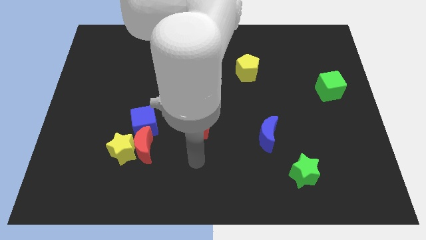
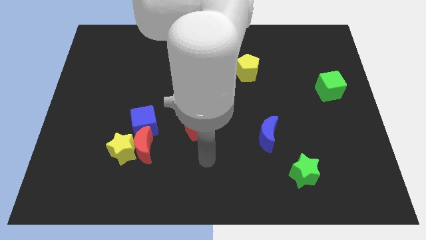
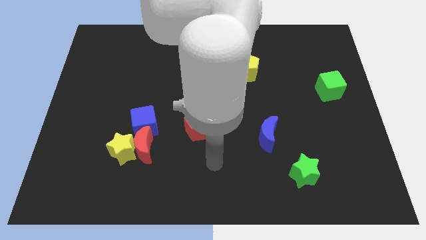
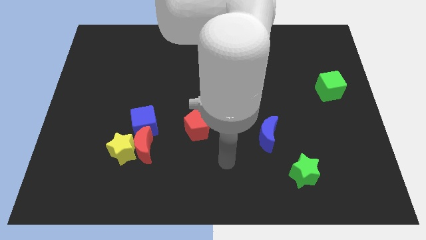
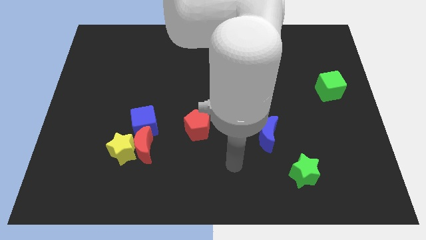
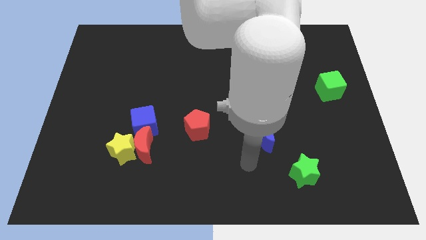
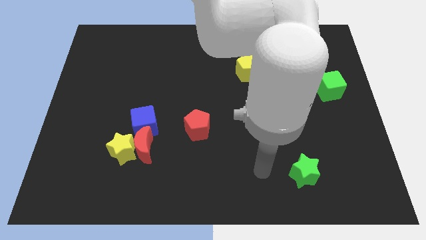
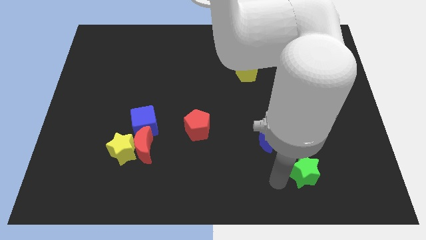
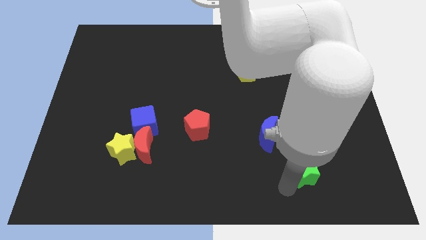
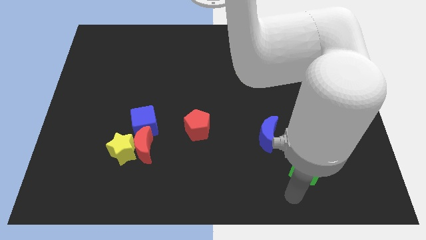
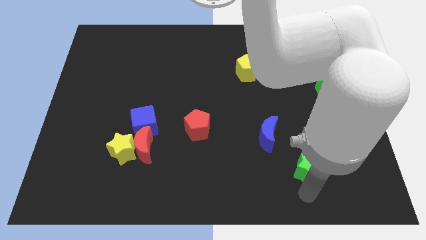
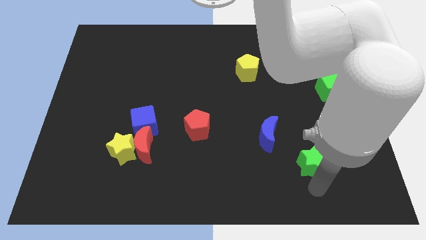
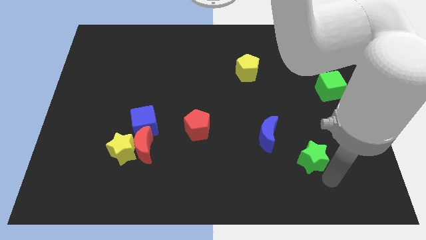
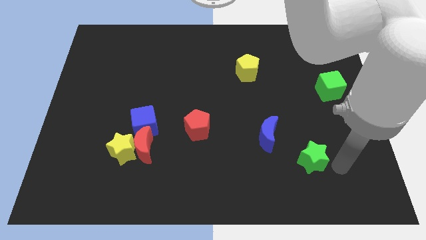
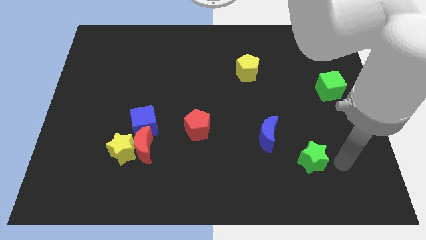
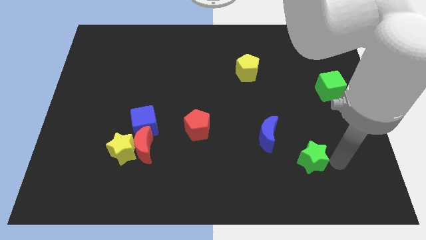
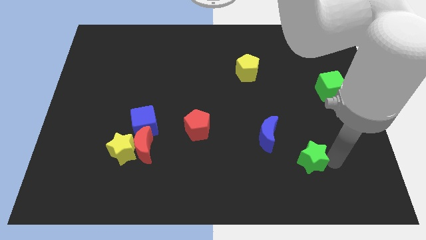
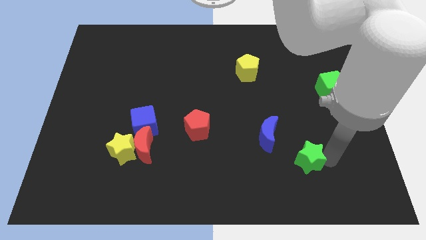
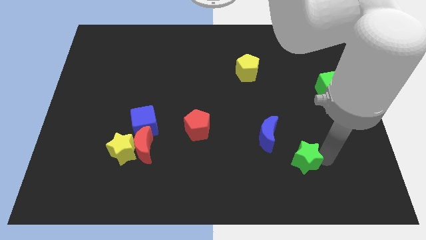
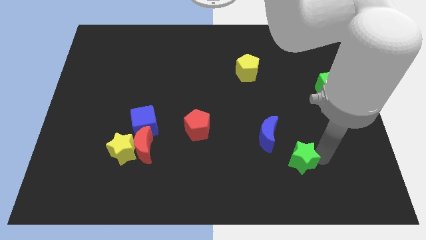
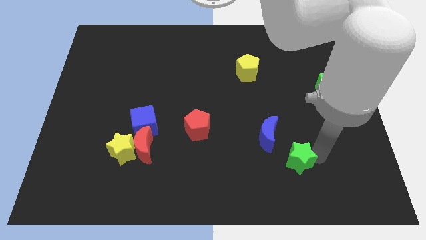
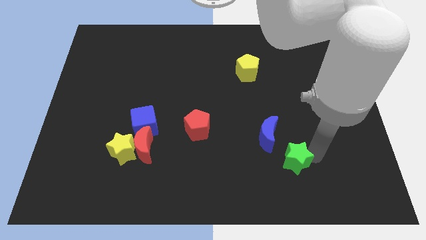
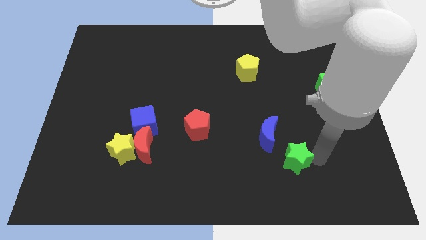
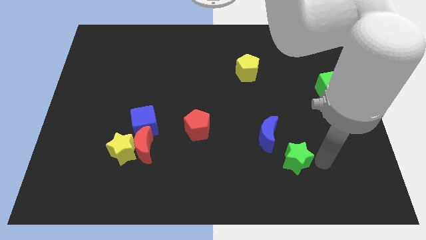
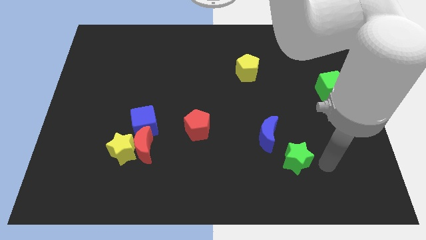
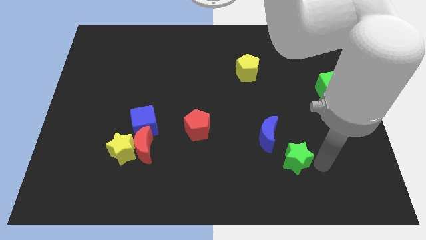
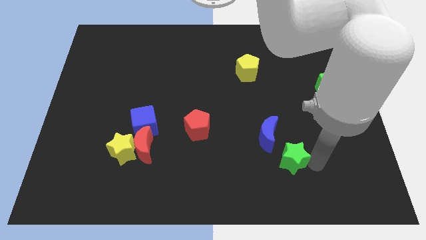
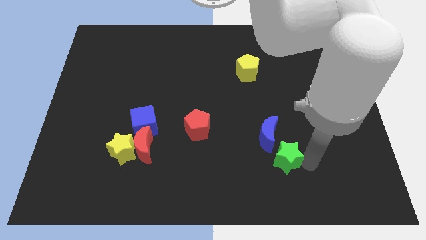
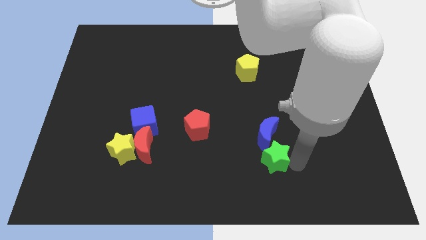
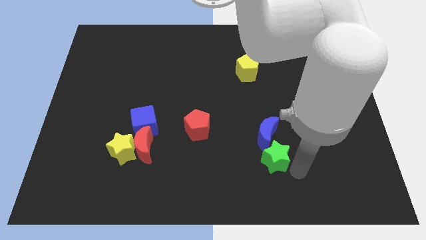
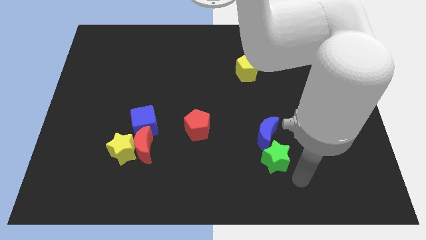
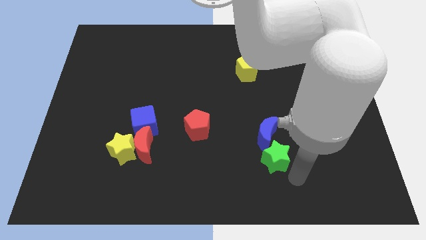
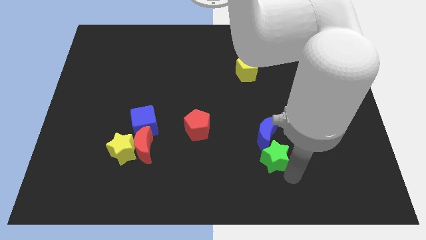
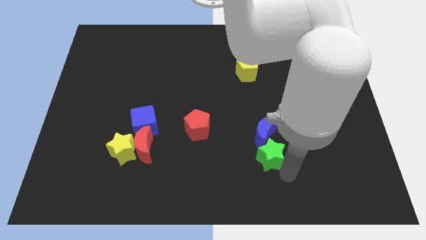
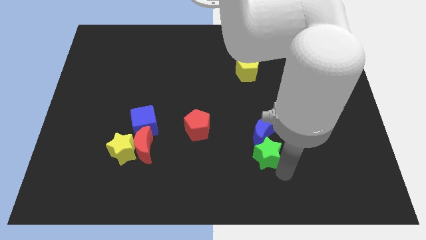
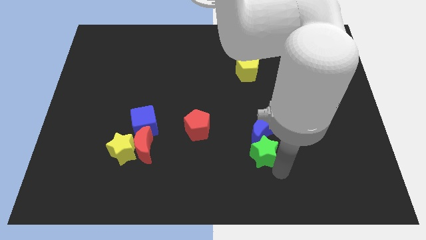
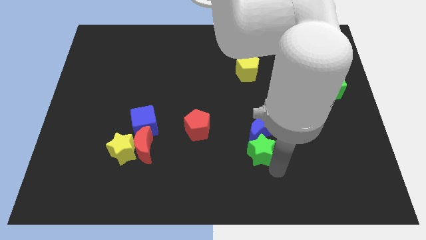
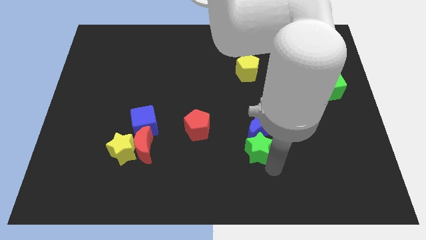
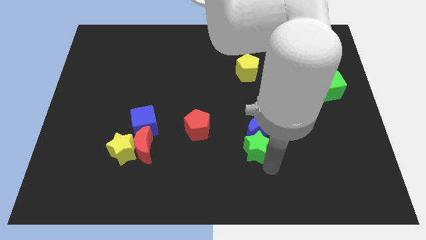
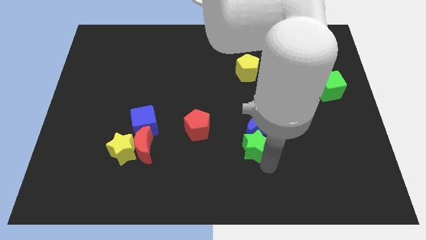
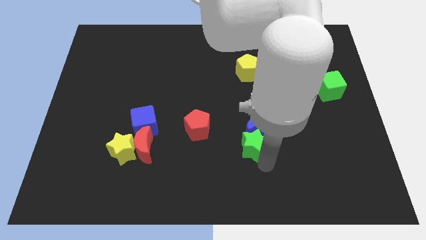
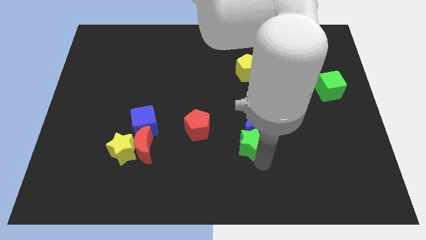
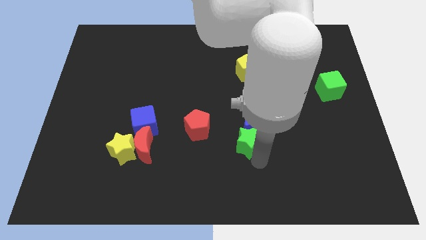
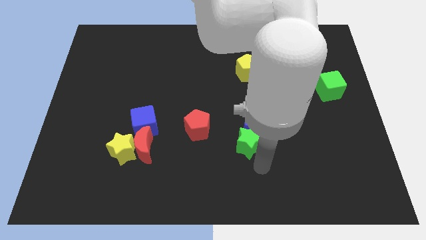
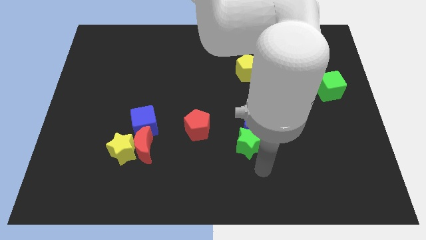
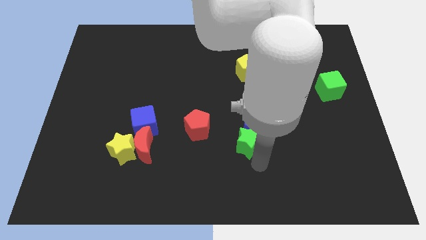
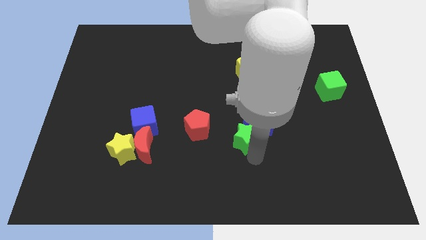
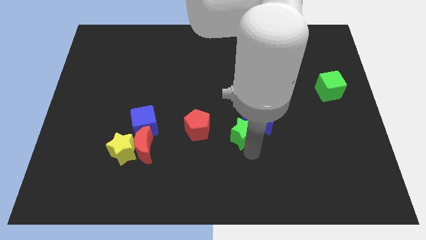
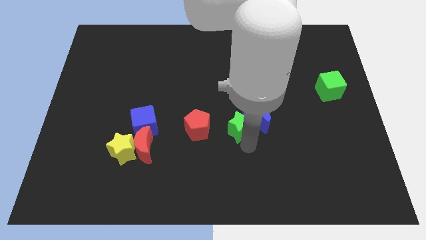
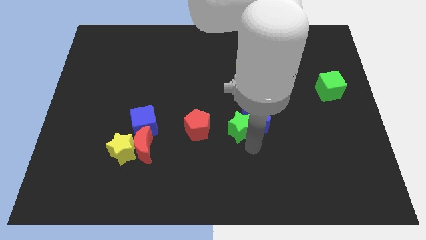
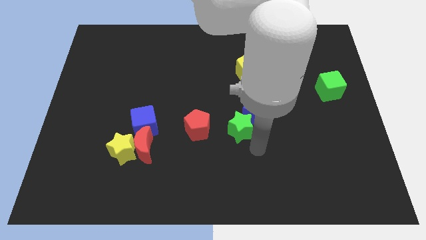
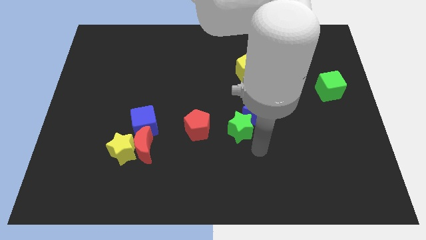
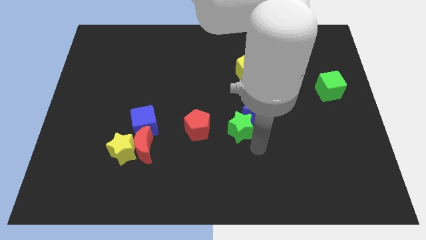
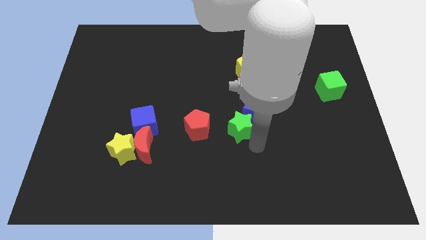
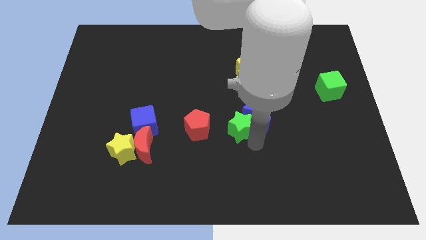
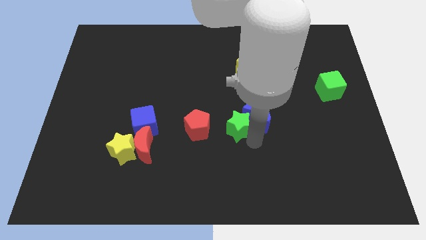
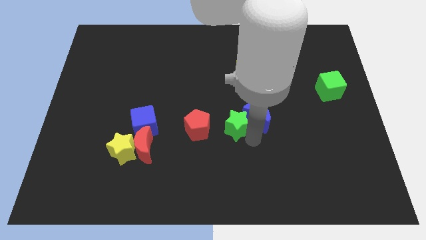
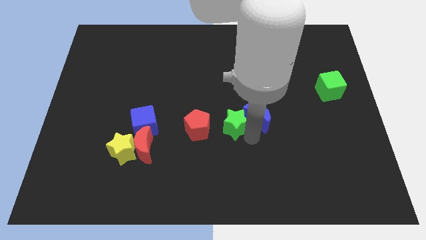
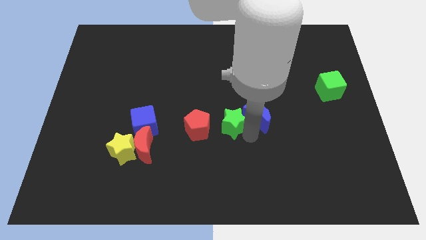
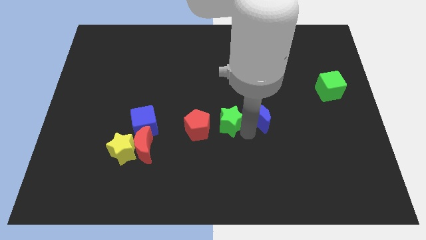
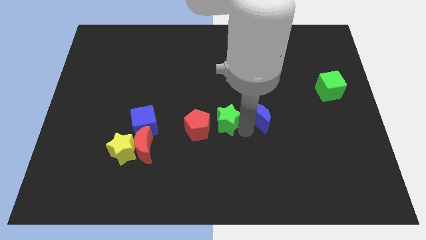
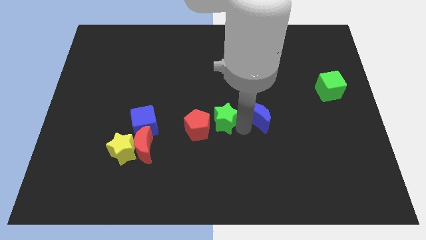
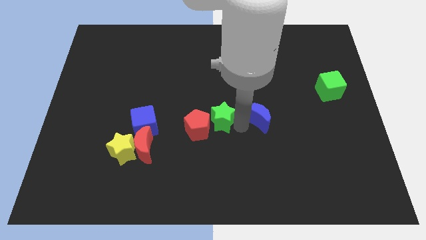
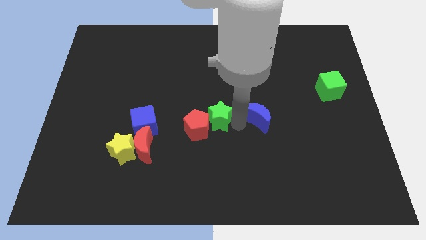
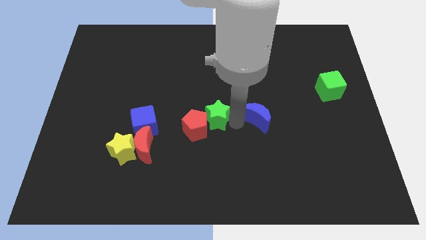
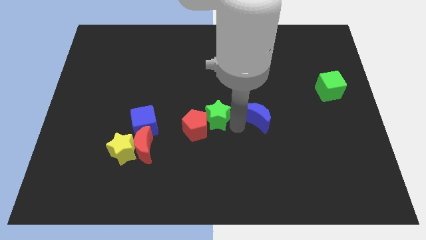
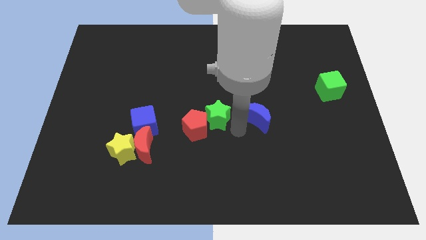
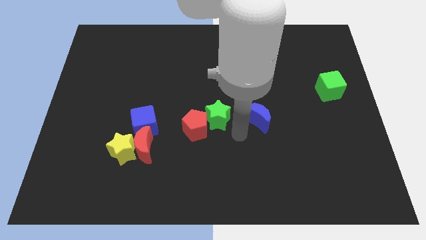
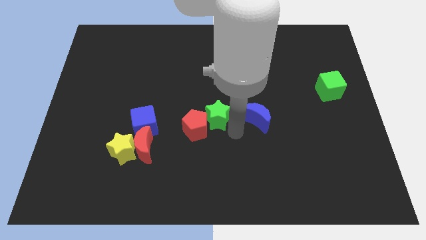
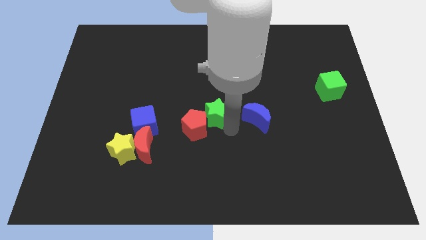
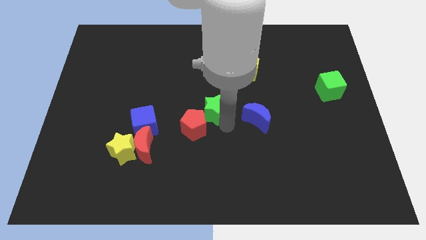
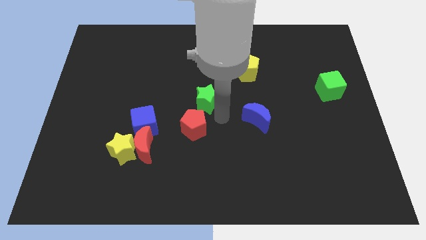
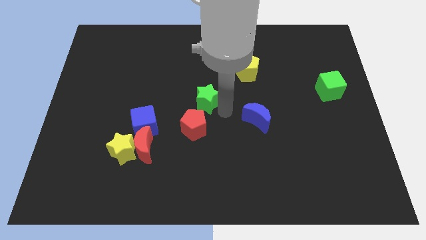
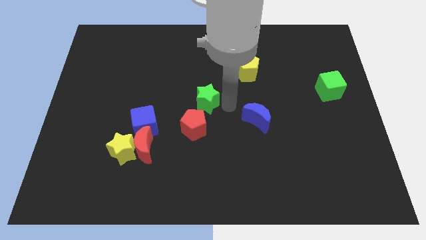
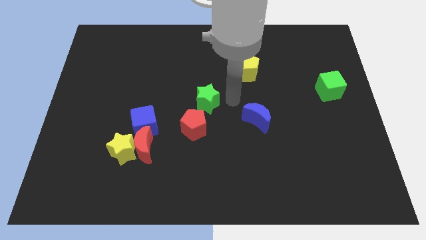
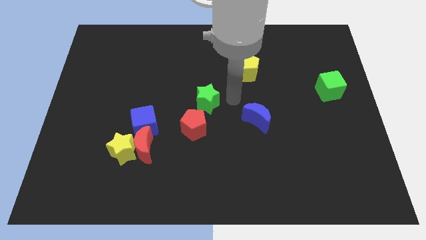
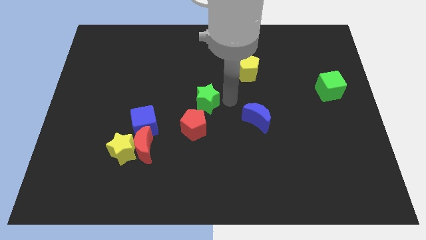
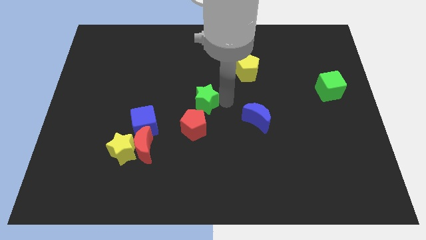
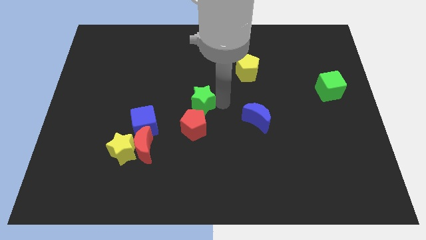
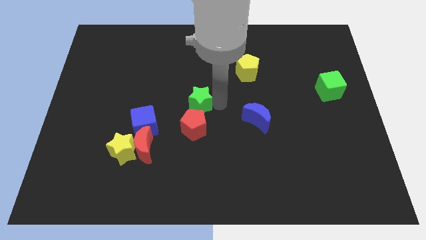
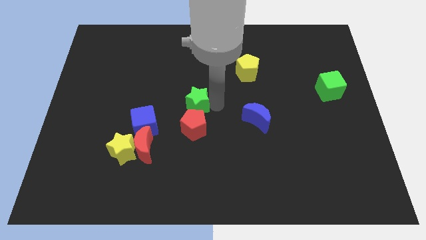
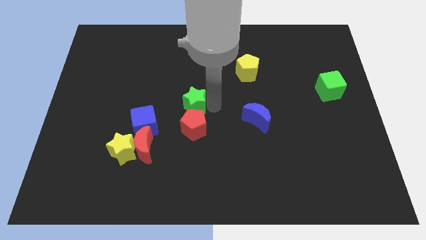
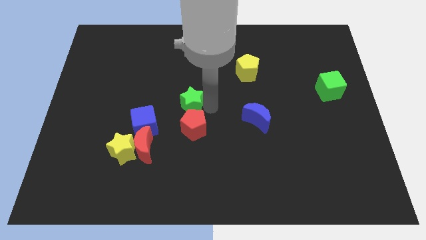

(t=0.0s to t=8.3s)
push the green star to the top right of the blue cube
